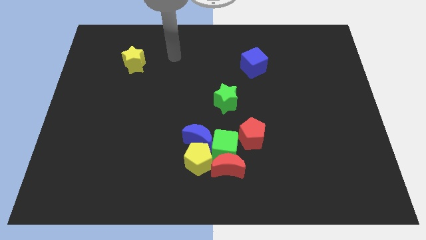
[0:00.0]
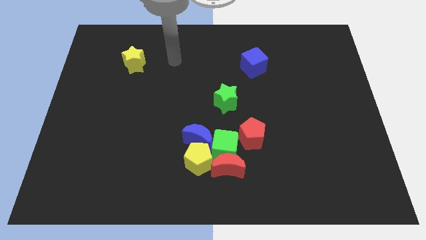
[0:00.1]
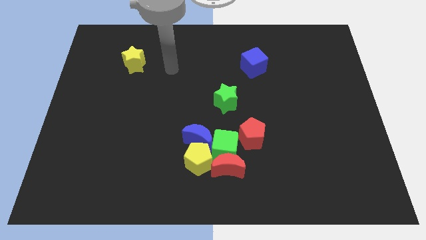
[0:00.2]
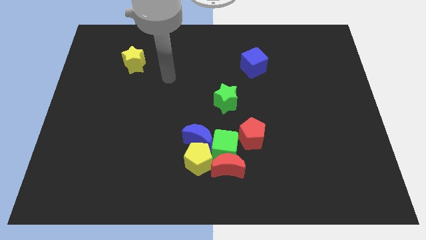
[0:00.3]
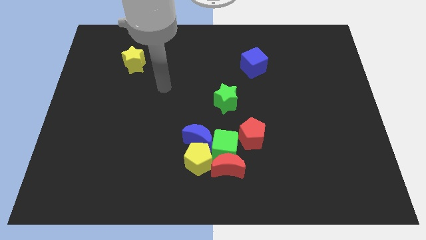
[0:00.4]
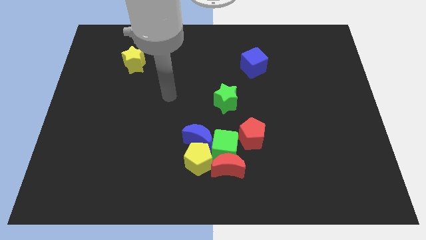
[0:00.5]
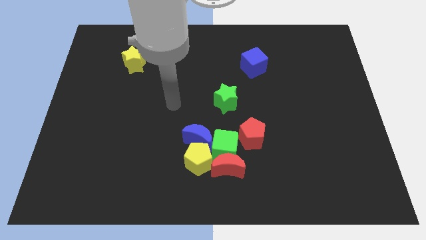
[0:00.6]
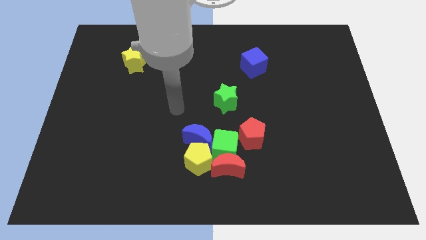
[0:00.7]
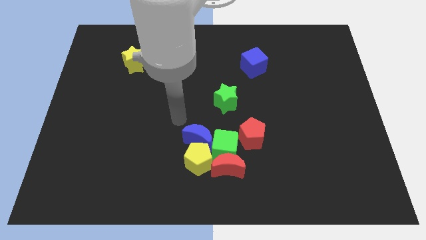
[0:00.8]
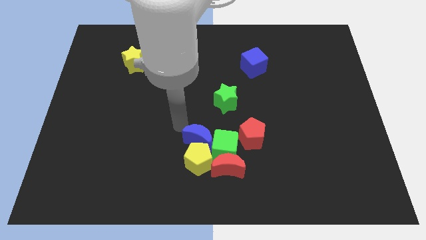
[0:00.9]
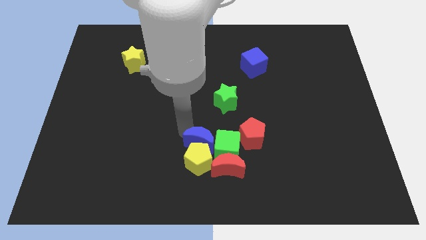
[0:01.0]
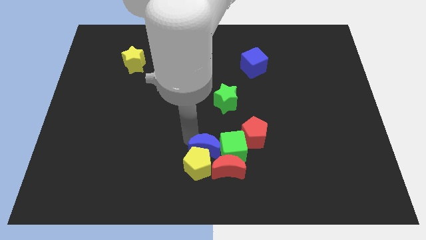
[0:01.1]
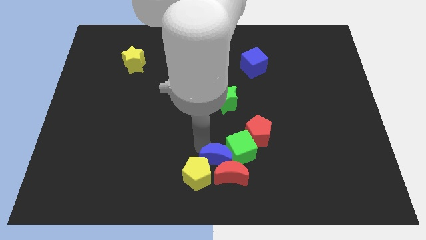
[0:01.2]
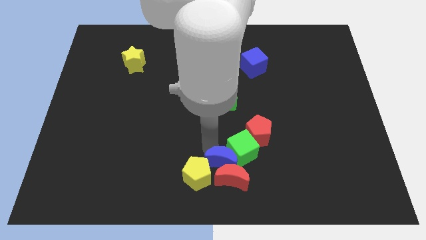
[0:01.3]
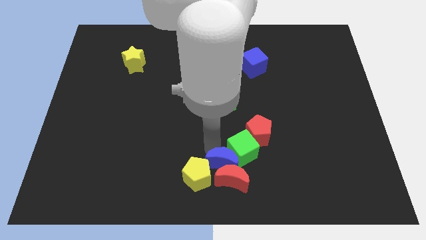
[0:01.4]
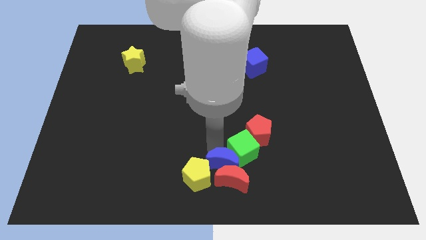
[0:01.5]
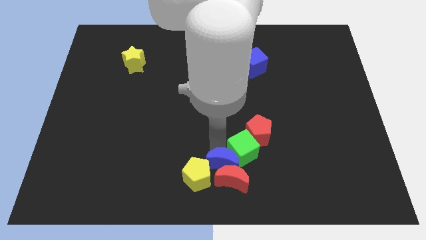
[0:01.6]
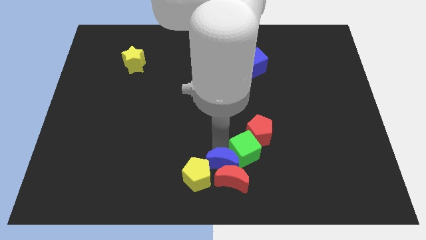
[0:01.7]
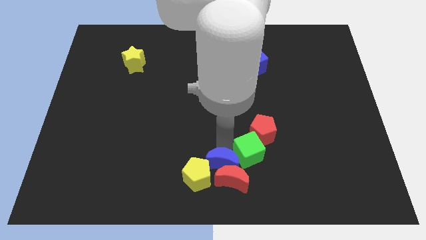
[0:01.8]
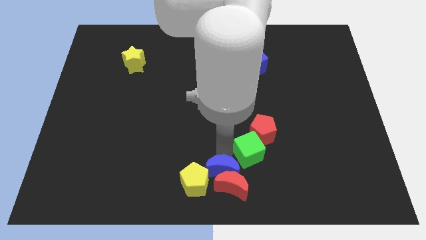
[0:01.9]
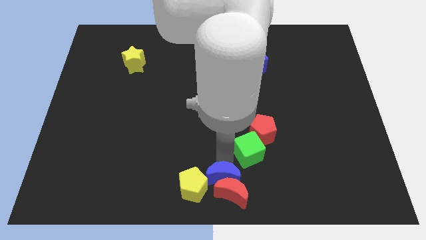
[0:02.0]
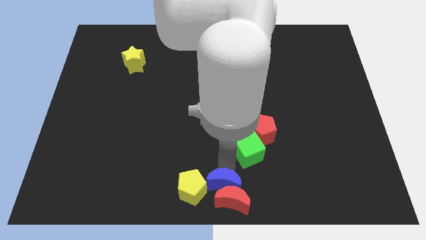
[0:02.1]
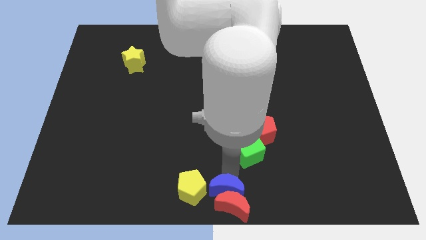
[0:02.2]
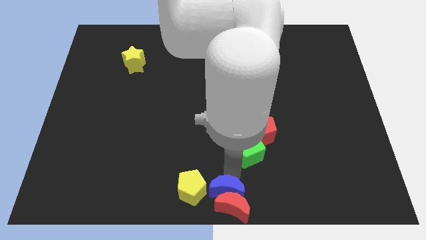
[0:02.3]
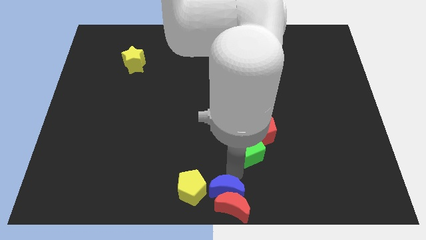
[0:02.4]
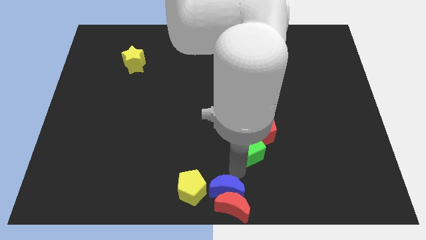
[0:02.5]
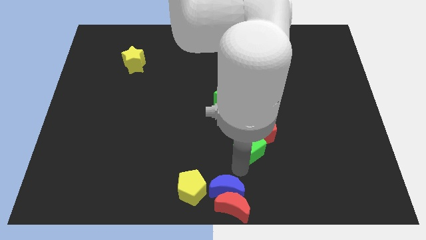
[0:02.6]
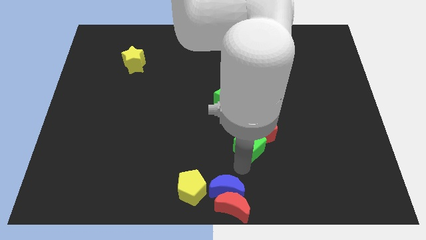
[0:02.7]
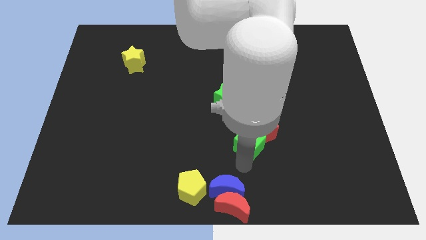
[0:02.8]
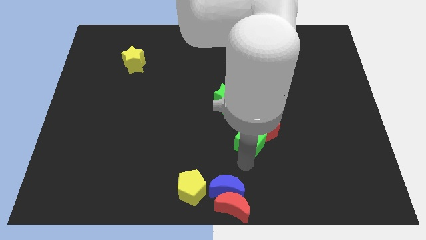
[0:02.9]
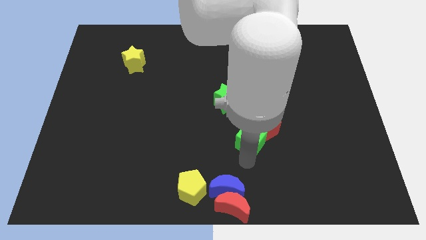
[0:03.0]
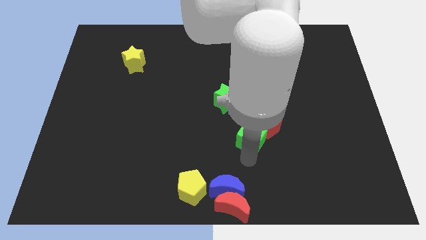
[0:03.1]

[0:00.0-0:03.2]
separate the green cube from the group

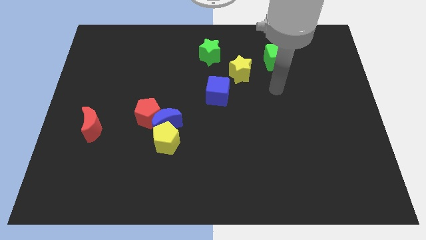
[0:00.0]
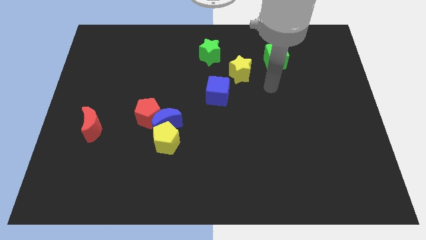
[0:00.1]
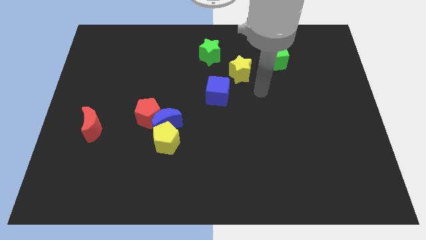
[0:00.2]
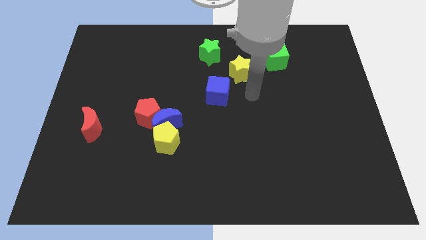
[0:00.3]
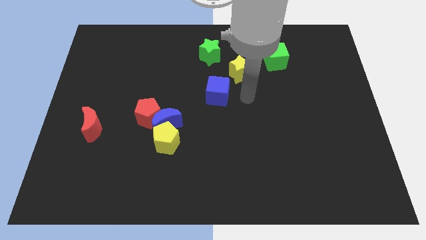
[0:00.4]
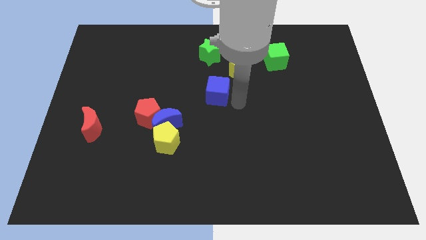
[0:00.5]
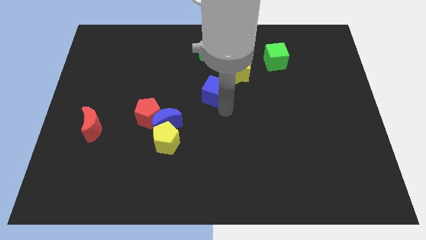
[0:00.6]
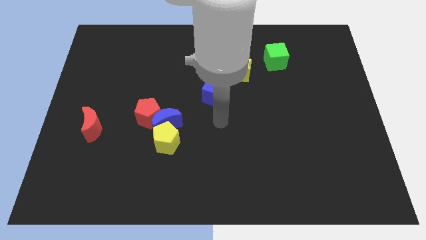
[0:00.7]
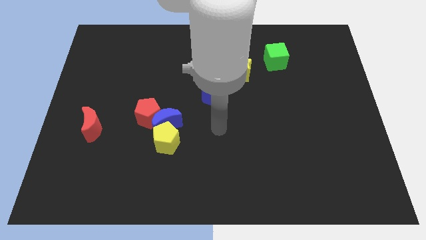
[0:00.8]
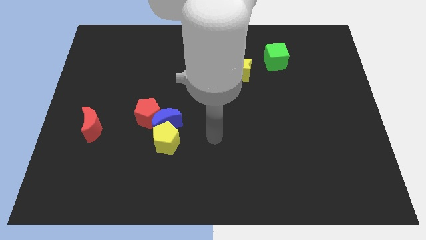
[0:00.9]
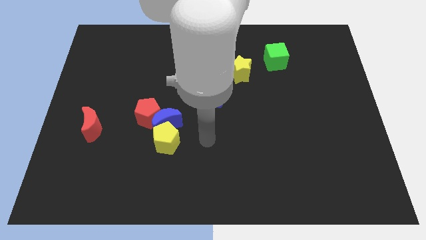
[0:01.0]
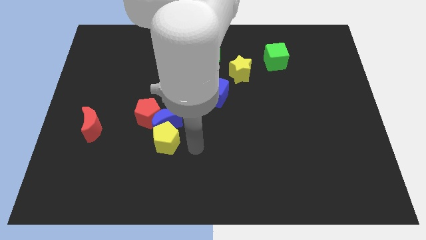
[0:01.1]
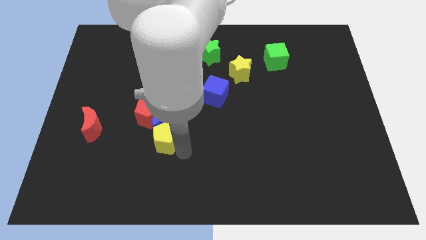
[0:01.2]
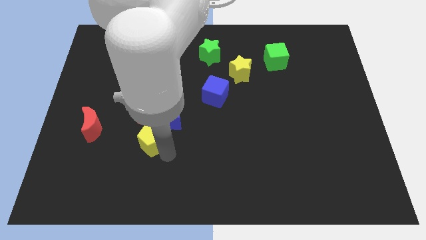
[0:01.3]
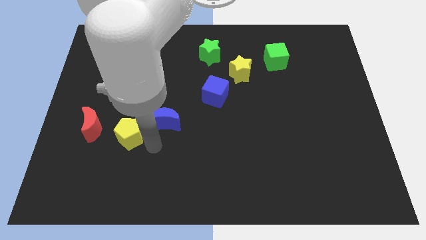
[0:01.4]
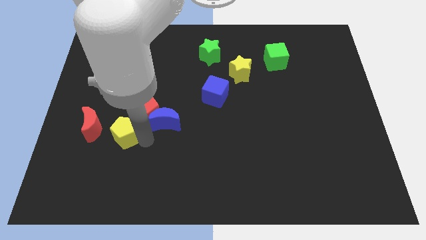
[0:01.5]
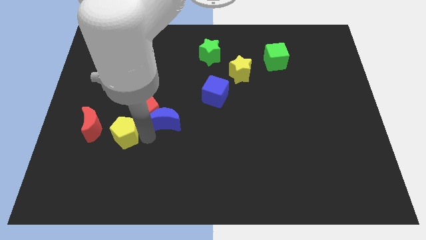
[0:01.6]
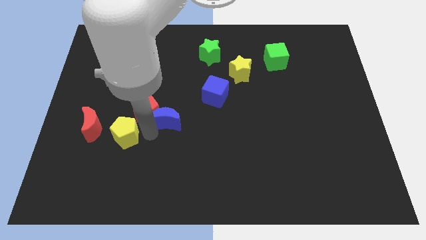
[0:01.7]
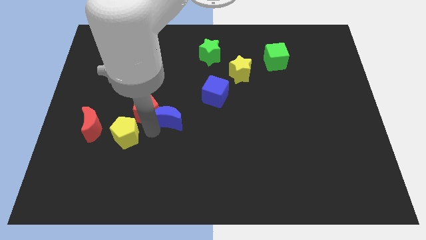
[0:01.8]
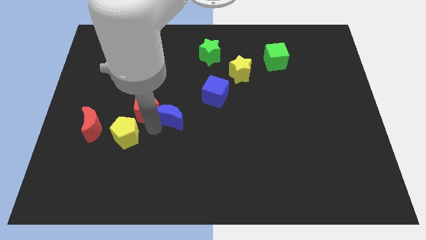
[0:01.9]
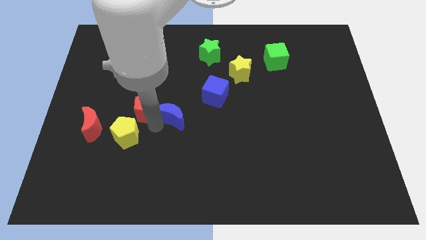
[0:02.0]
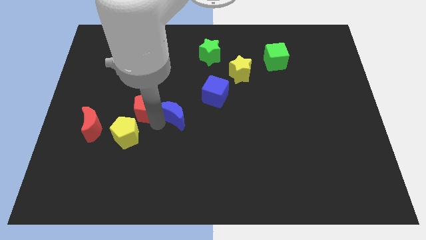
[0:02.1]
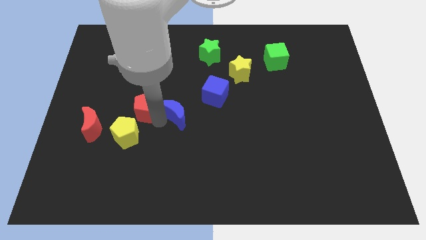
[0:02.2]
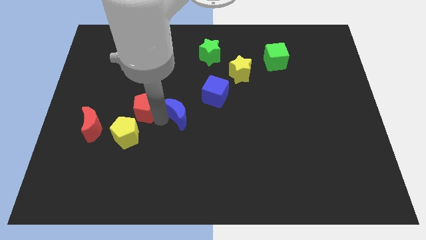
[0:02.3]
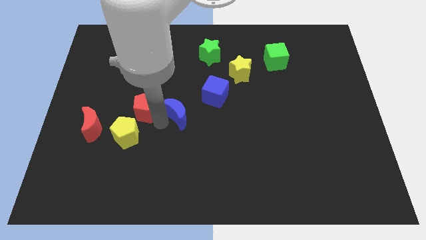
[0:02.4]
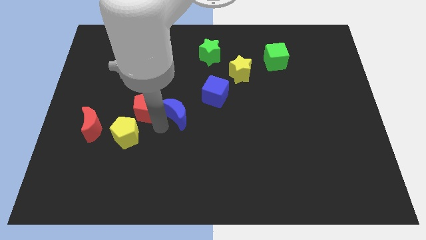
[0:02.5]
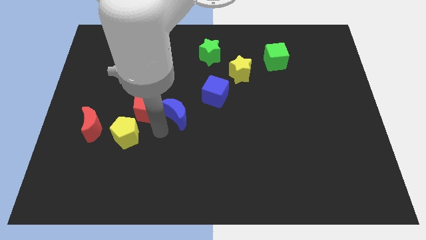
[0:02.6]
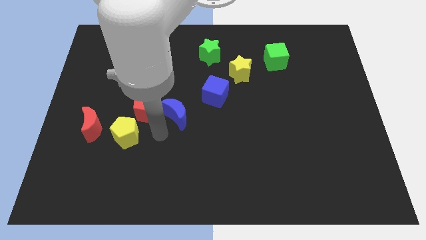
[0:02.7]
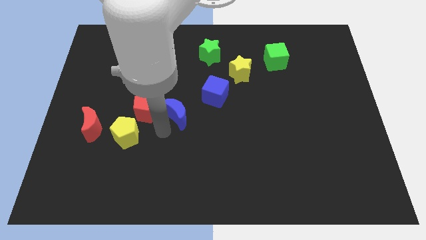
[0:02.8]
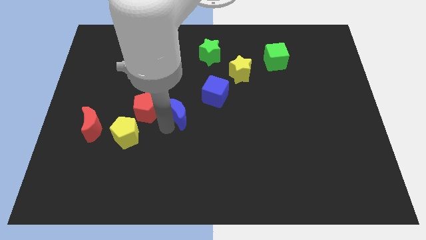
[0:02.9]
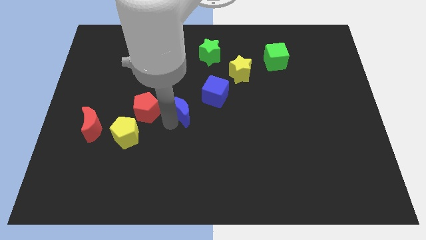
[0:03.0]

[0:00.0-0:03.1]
move the blue moon away from the red pentagon and yellow pentagon

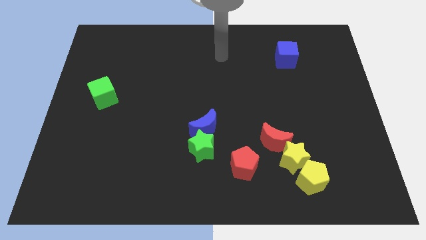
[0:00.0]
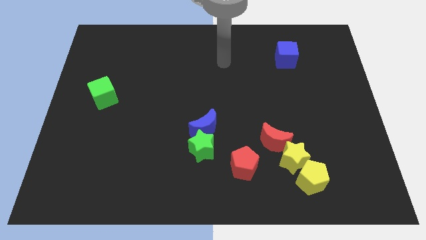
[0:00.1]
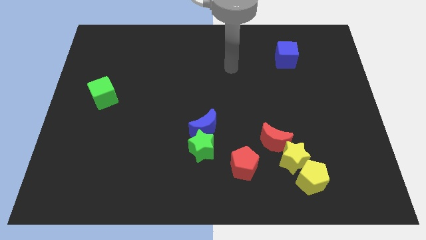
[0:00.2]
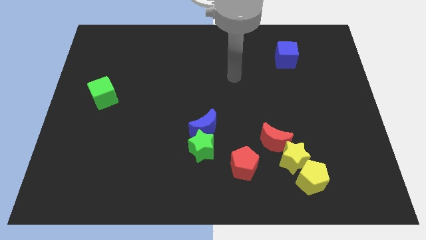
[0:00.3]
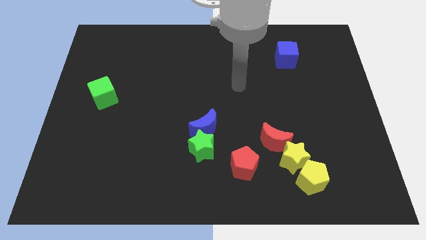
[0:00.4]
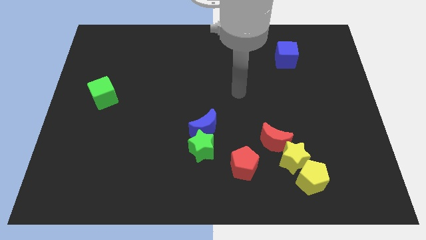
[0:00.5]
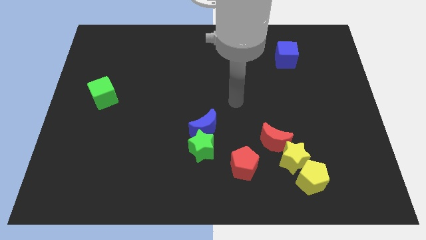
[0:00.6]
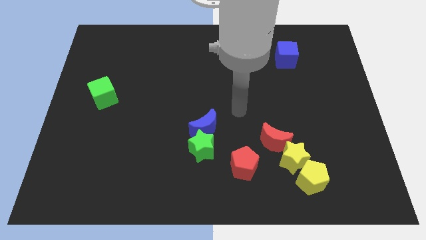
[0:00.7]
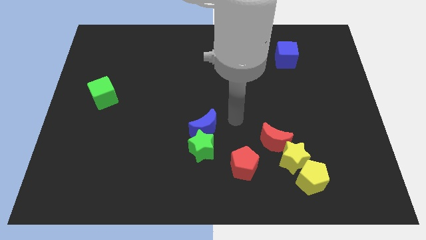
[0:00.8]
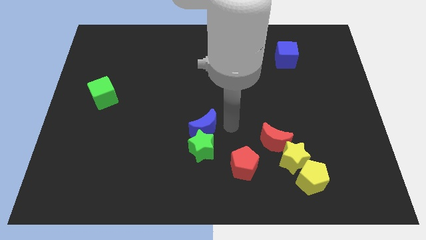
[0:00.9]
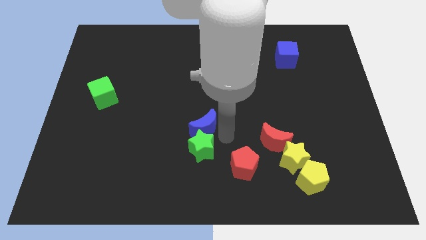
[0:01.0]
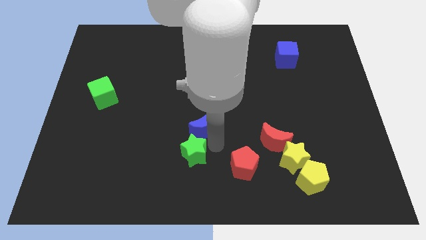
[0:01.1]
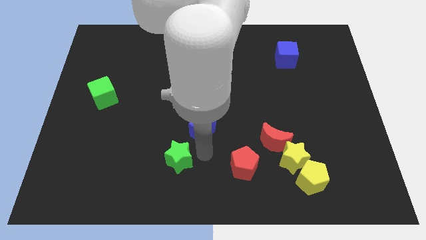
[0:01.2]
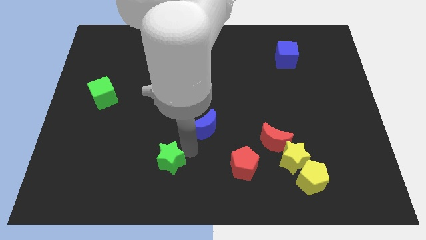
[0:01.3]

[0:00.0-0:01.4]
separate the blue moon from the green star

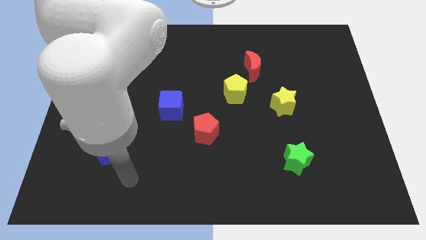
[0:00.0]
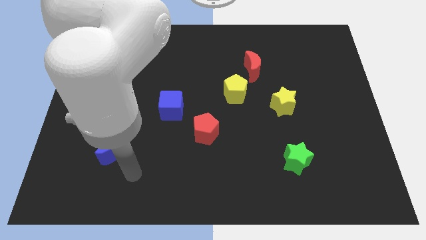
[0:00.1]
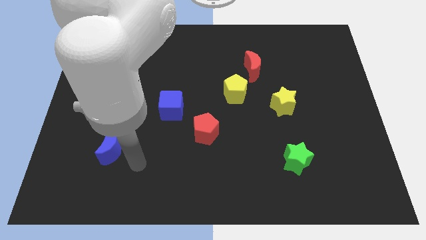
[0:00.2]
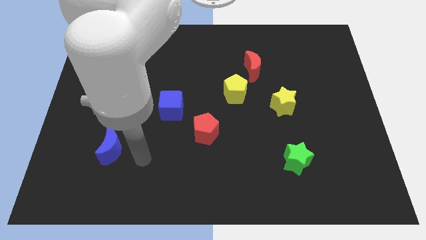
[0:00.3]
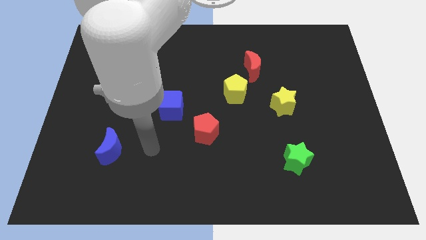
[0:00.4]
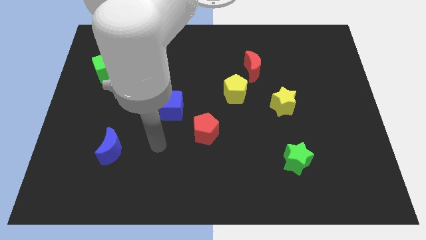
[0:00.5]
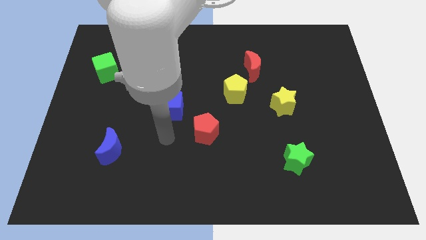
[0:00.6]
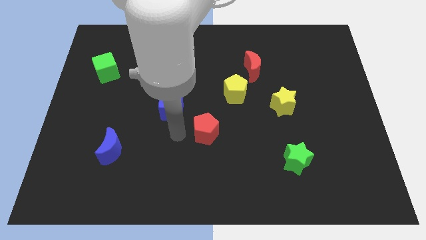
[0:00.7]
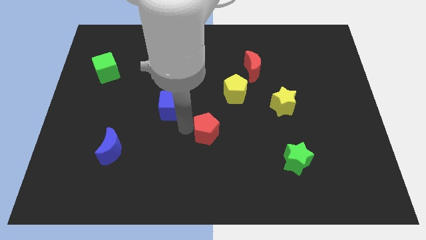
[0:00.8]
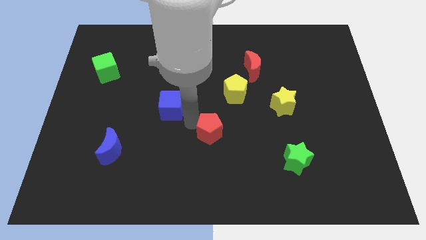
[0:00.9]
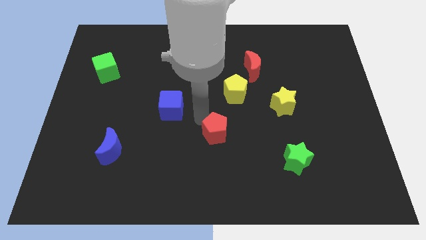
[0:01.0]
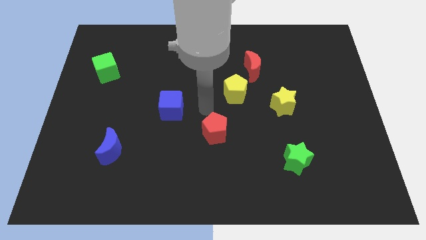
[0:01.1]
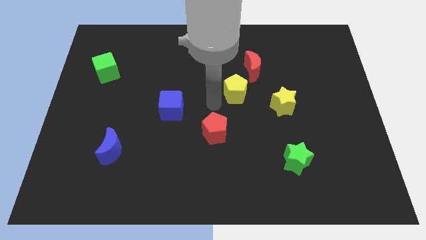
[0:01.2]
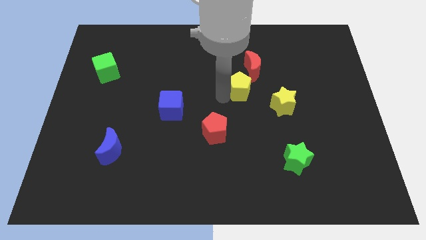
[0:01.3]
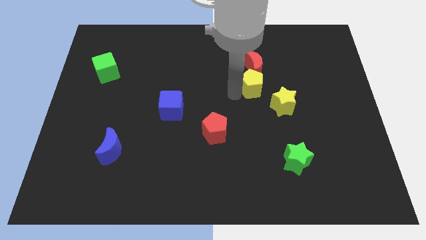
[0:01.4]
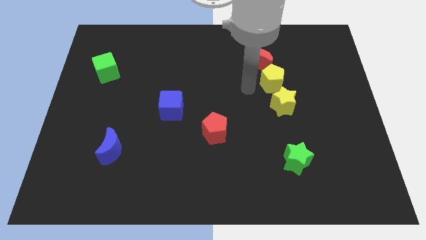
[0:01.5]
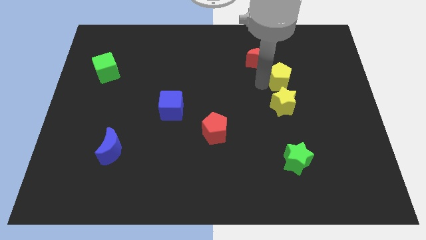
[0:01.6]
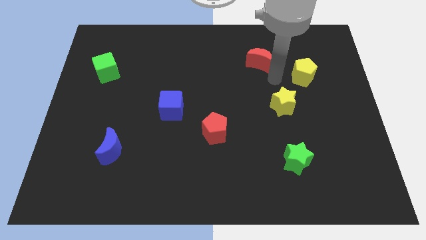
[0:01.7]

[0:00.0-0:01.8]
separate the red moon from the yellow pentagon
